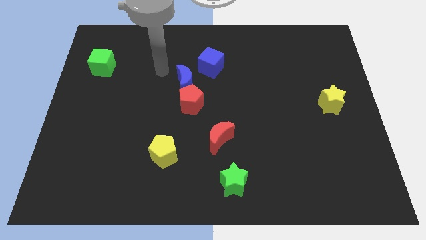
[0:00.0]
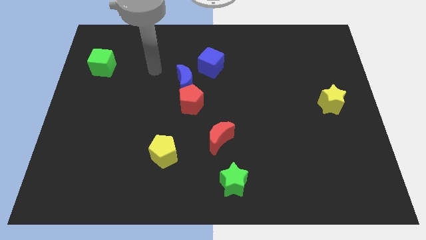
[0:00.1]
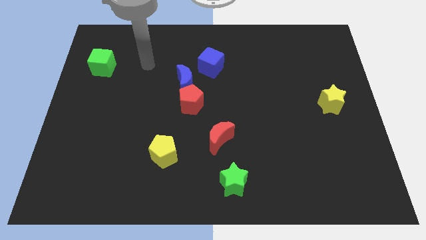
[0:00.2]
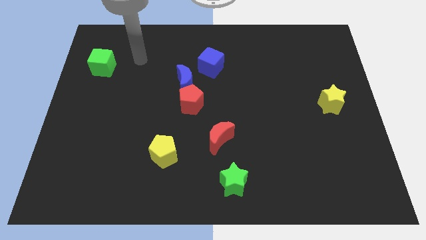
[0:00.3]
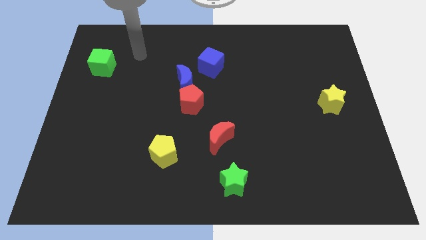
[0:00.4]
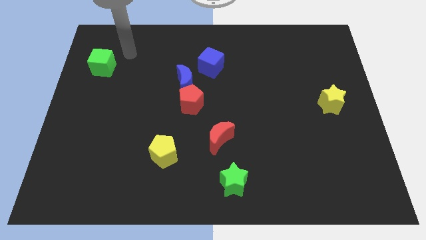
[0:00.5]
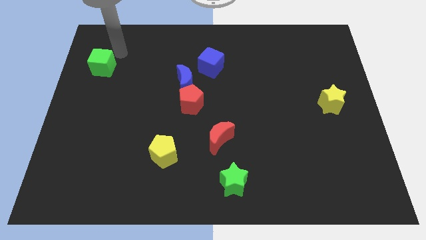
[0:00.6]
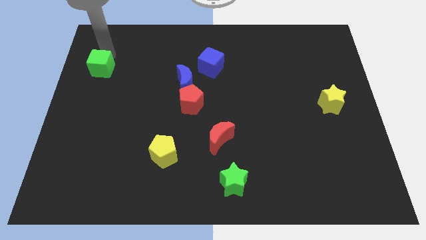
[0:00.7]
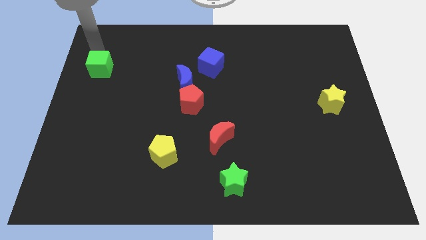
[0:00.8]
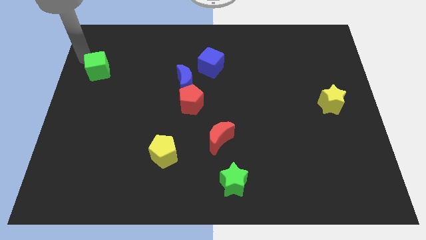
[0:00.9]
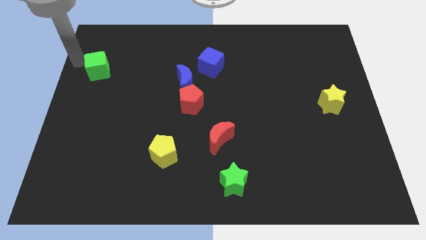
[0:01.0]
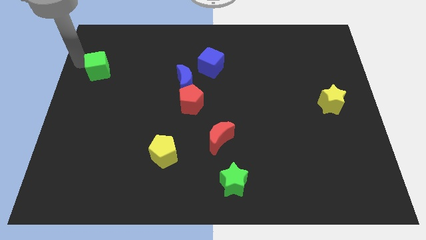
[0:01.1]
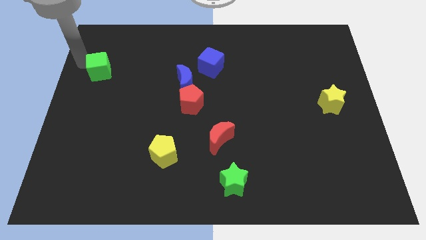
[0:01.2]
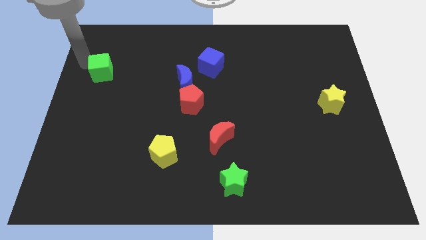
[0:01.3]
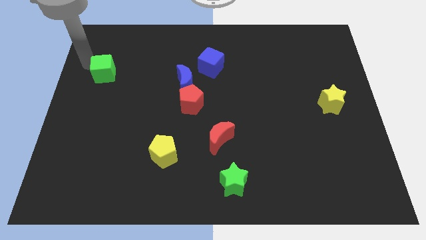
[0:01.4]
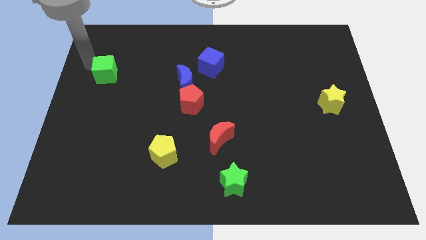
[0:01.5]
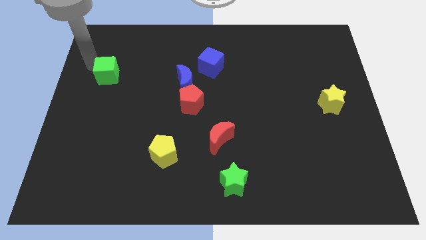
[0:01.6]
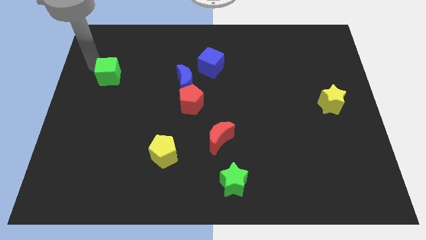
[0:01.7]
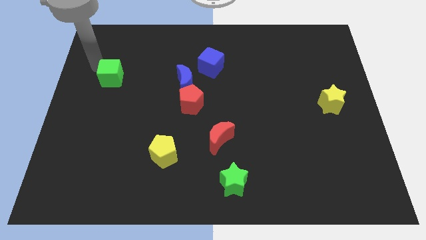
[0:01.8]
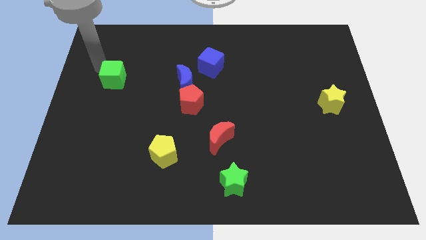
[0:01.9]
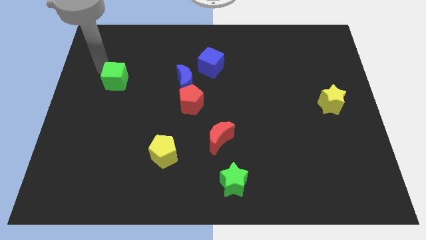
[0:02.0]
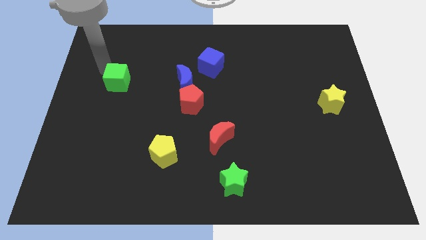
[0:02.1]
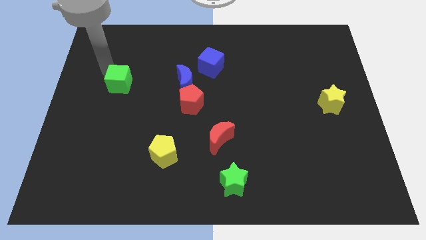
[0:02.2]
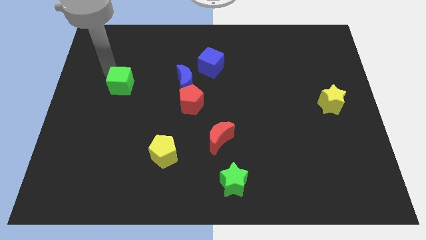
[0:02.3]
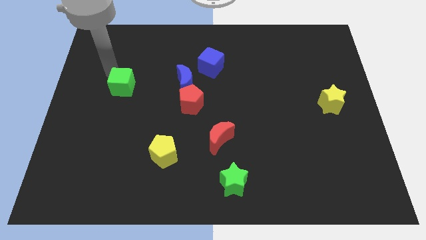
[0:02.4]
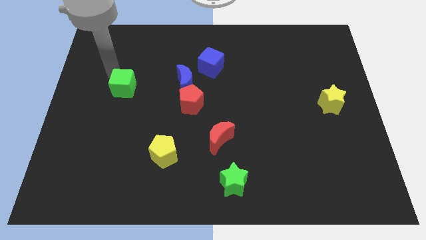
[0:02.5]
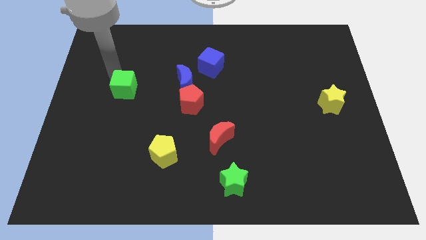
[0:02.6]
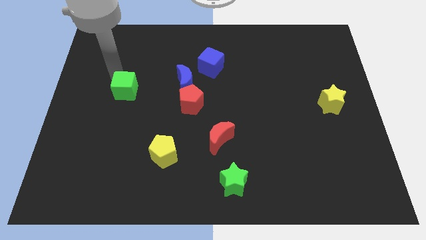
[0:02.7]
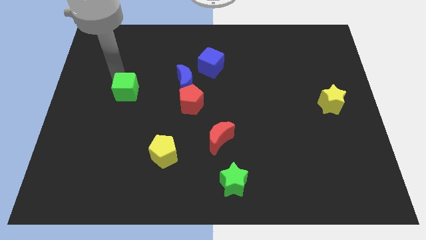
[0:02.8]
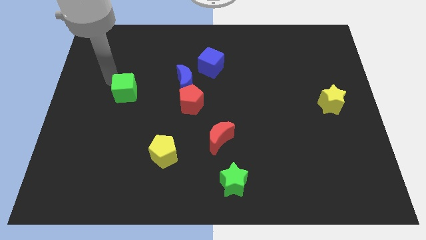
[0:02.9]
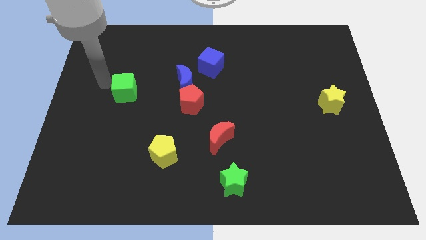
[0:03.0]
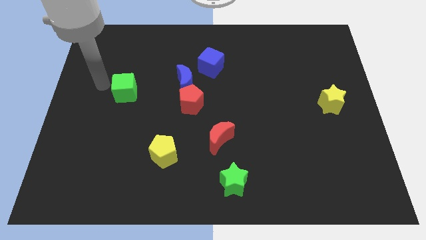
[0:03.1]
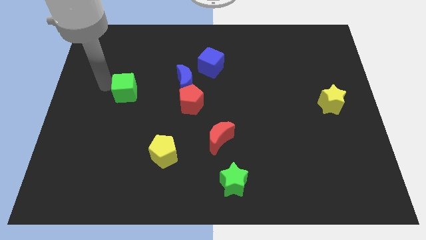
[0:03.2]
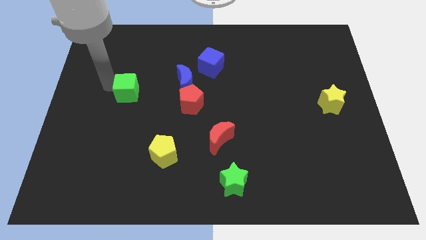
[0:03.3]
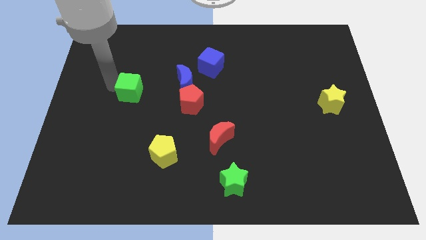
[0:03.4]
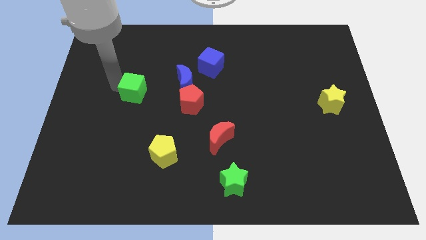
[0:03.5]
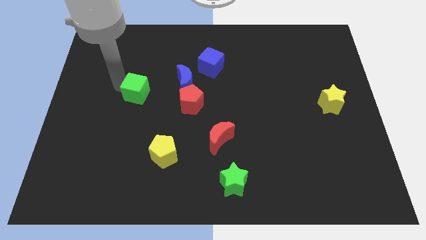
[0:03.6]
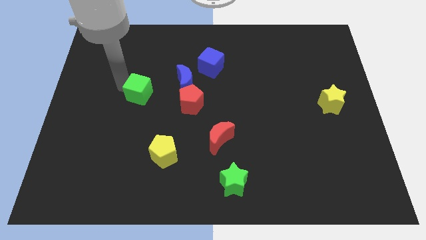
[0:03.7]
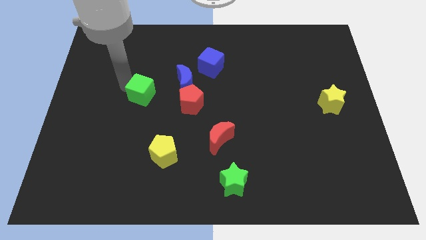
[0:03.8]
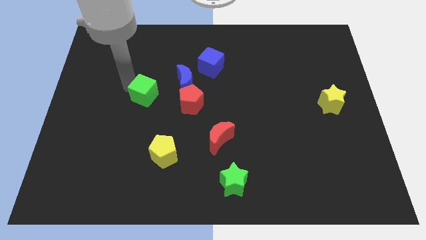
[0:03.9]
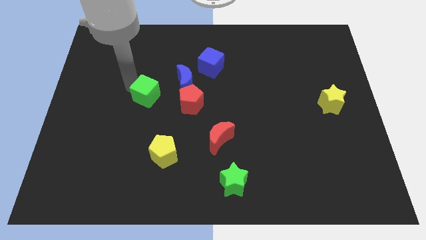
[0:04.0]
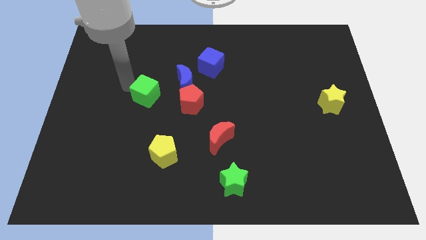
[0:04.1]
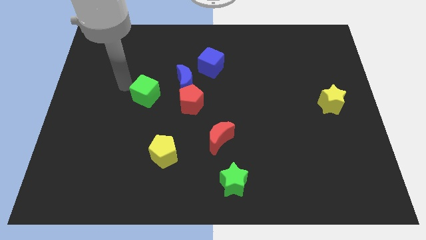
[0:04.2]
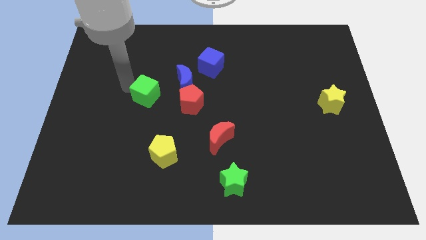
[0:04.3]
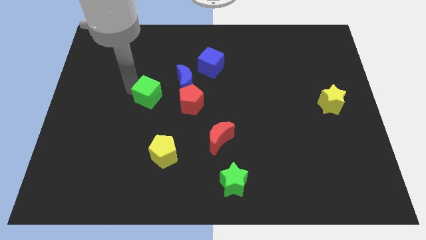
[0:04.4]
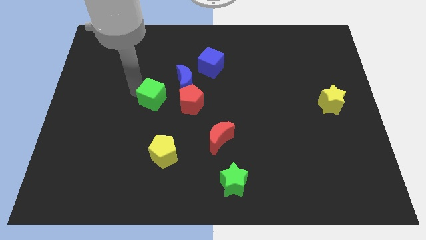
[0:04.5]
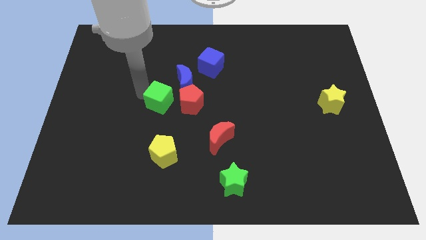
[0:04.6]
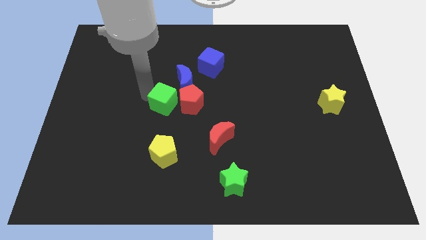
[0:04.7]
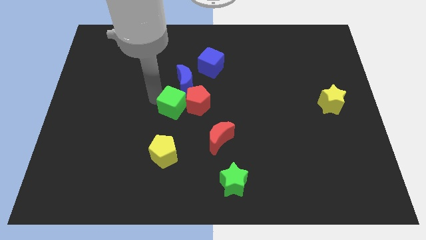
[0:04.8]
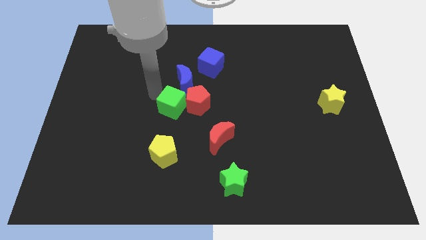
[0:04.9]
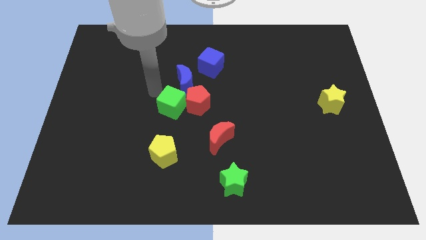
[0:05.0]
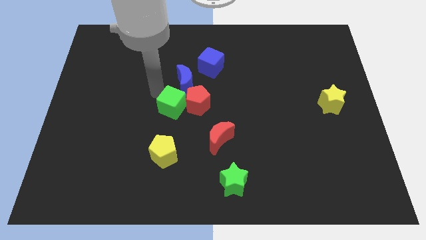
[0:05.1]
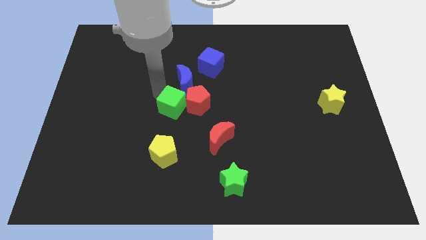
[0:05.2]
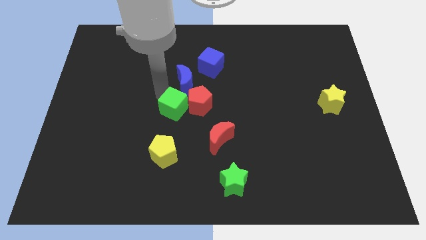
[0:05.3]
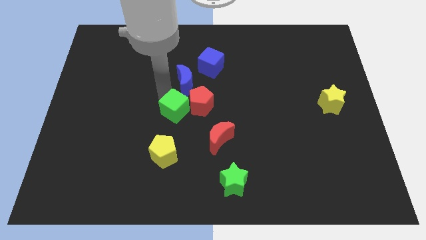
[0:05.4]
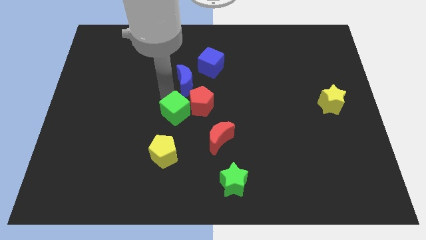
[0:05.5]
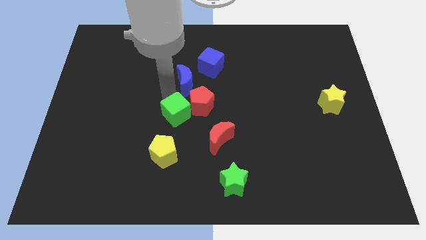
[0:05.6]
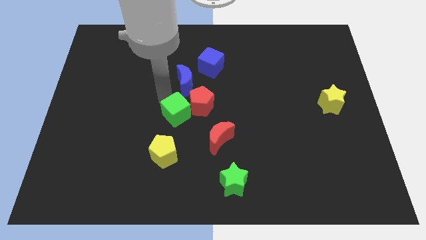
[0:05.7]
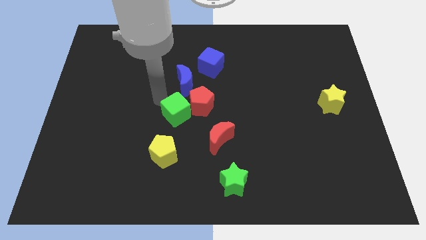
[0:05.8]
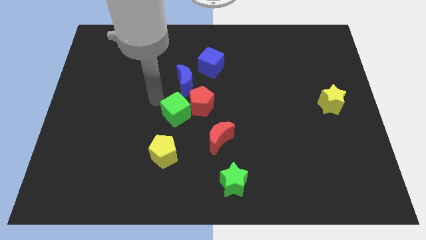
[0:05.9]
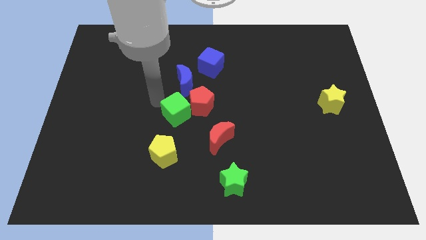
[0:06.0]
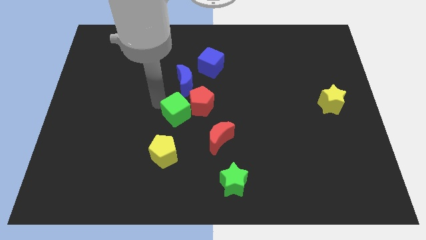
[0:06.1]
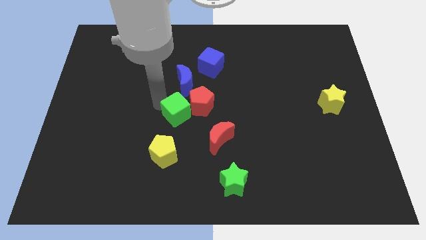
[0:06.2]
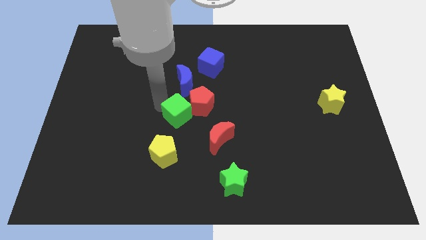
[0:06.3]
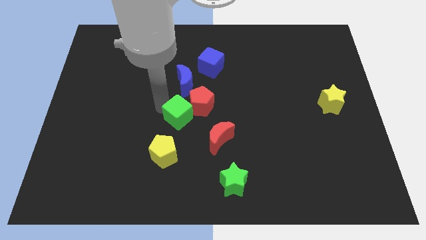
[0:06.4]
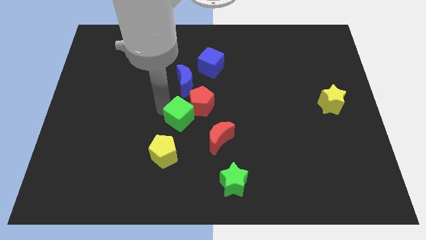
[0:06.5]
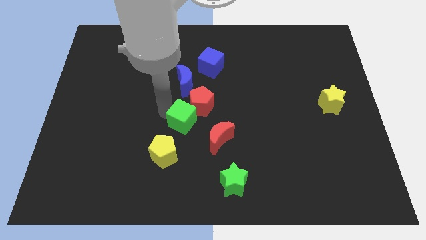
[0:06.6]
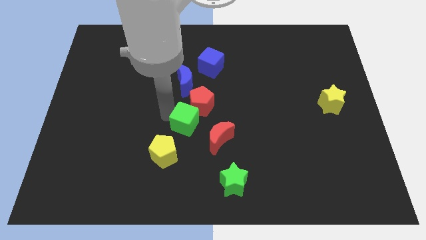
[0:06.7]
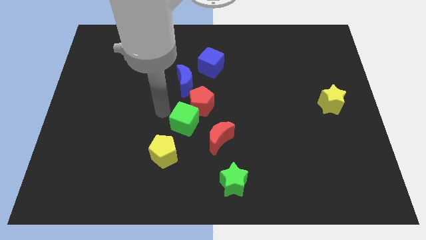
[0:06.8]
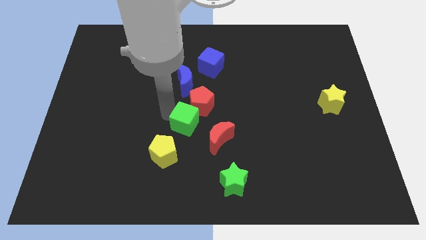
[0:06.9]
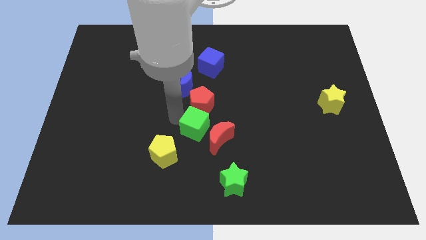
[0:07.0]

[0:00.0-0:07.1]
move the green cube close to the red moon
